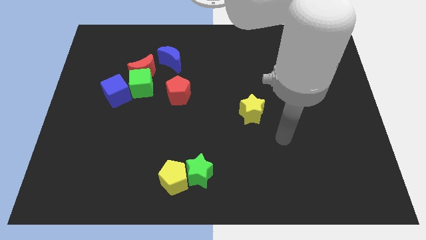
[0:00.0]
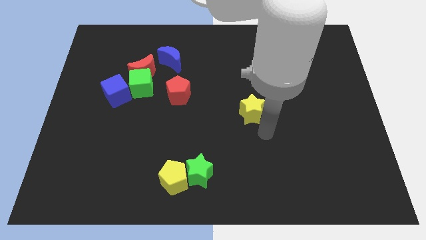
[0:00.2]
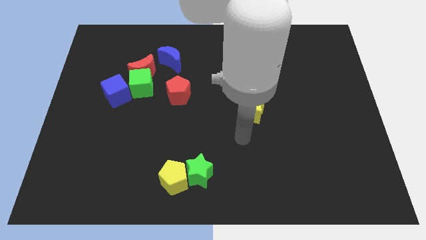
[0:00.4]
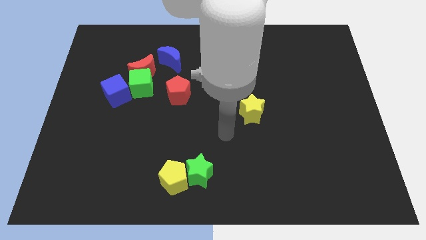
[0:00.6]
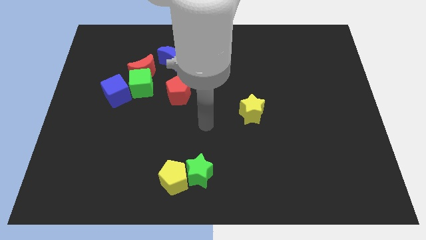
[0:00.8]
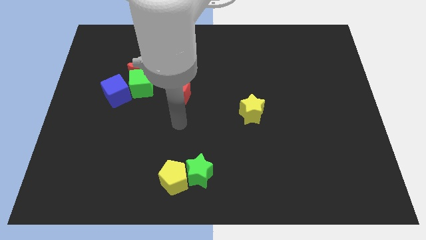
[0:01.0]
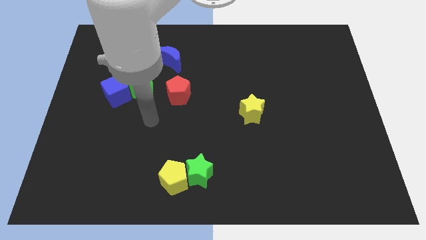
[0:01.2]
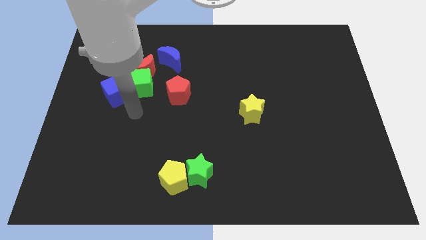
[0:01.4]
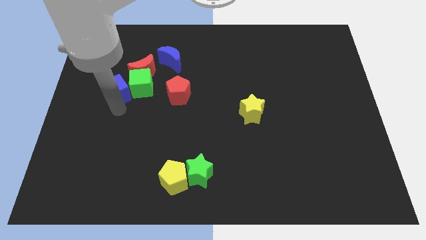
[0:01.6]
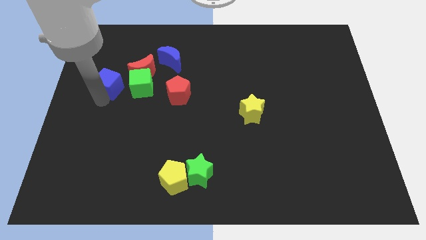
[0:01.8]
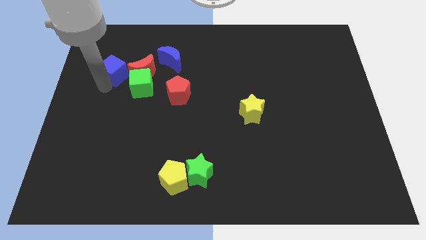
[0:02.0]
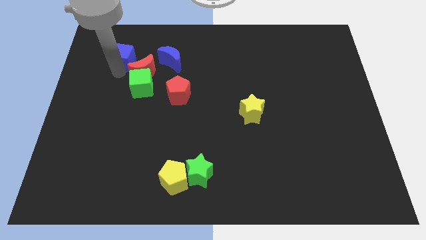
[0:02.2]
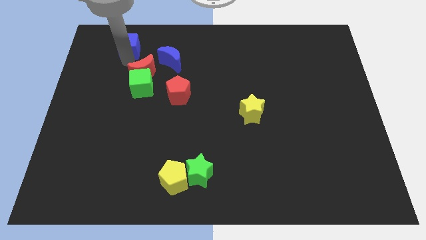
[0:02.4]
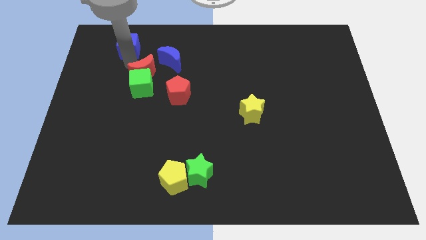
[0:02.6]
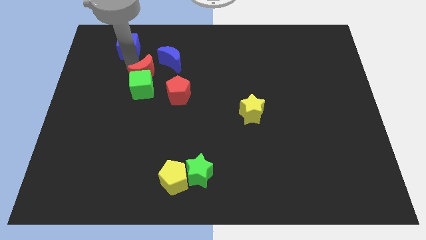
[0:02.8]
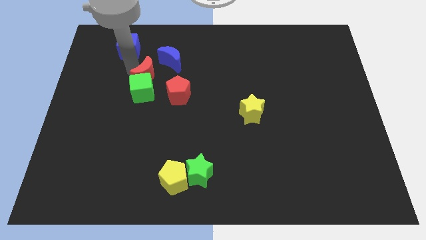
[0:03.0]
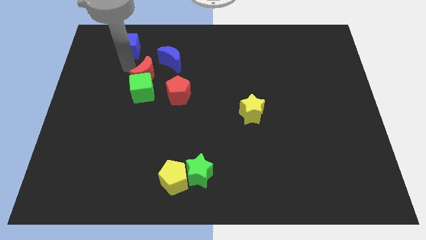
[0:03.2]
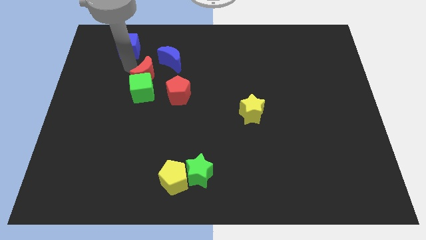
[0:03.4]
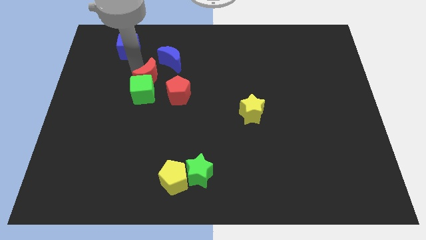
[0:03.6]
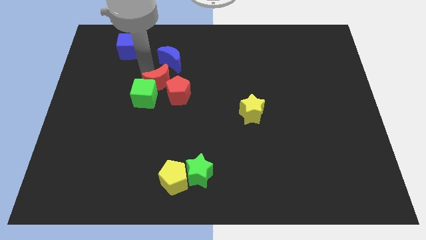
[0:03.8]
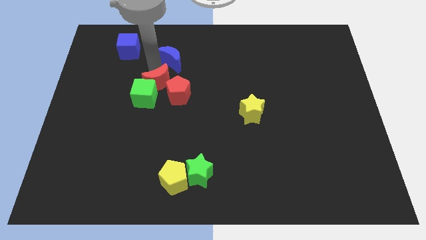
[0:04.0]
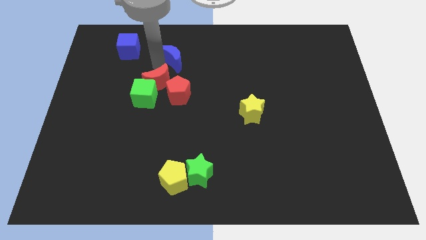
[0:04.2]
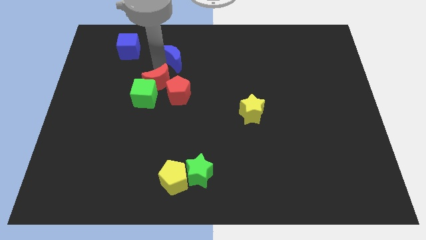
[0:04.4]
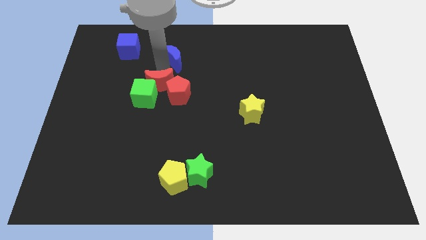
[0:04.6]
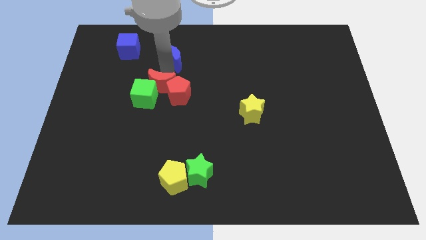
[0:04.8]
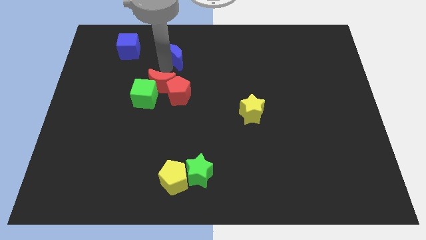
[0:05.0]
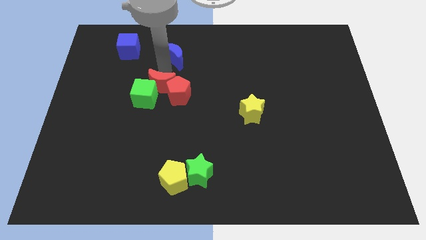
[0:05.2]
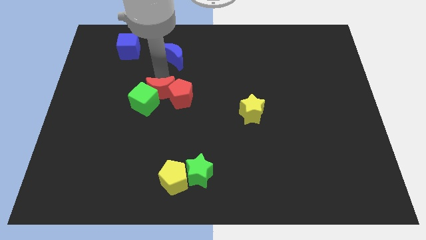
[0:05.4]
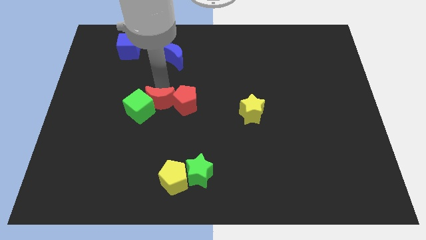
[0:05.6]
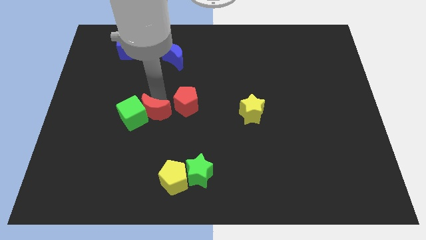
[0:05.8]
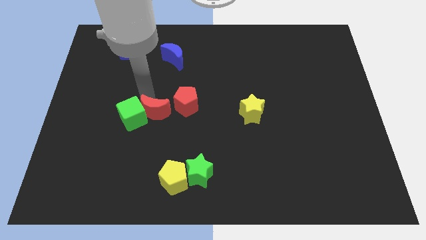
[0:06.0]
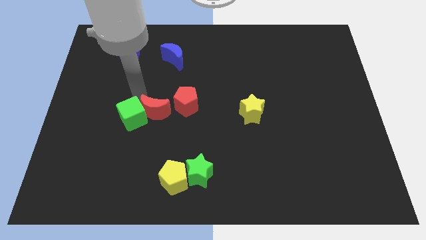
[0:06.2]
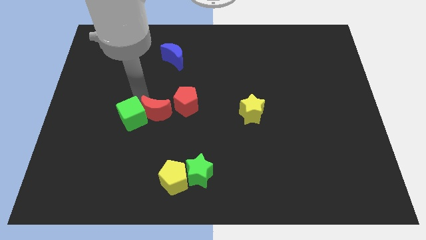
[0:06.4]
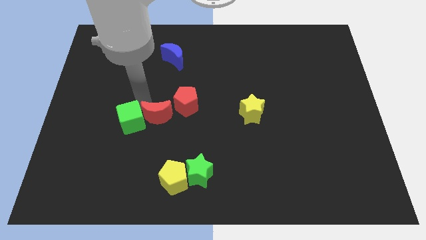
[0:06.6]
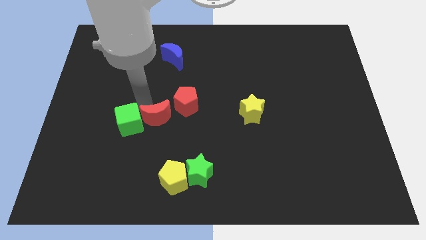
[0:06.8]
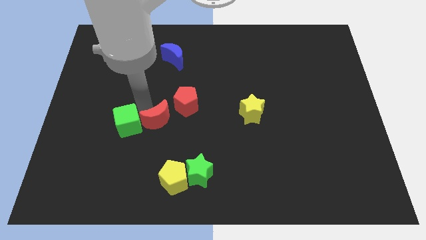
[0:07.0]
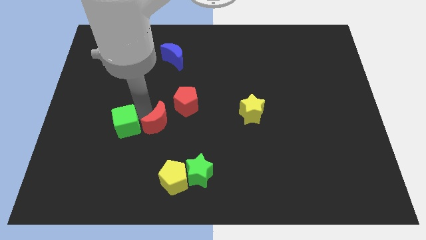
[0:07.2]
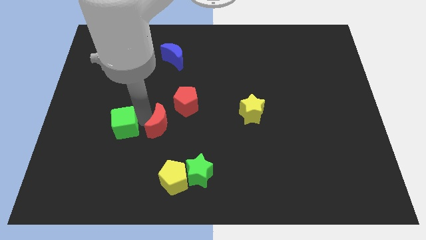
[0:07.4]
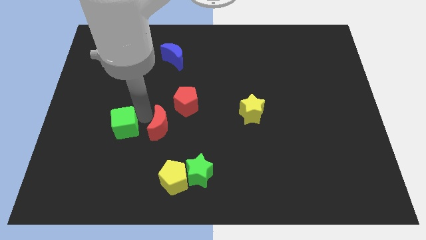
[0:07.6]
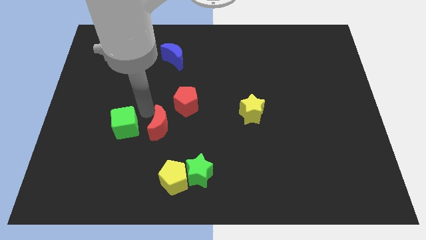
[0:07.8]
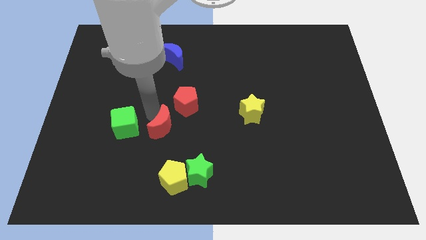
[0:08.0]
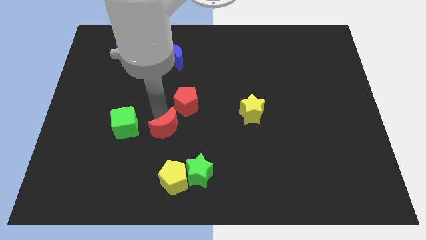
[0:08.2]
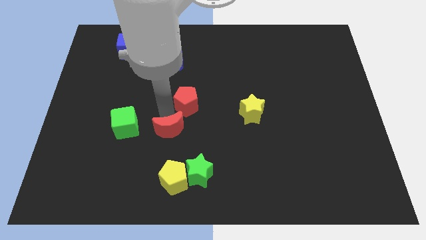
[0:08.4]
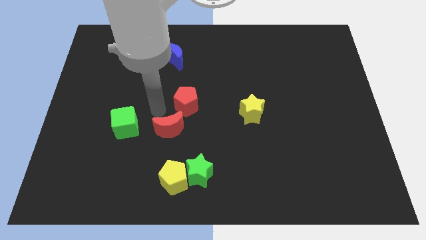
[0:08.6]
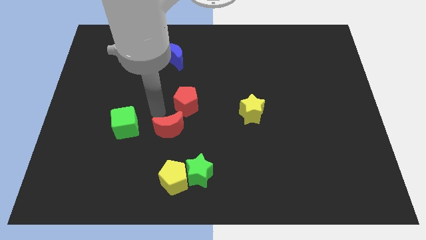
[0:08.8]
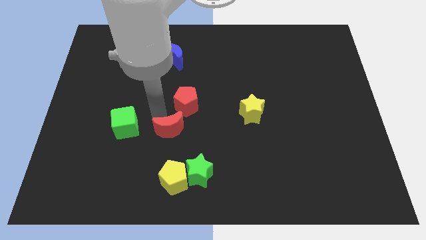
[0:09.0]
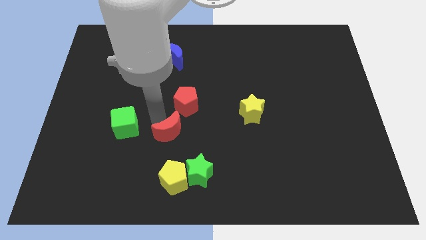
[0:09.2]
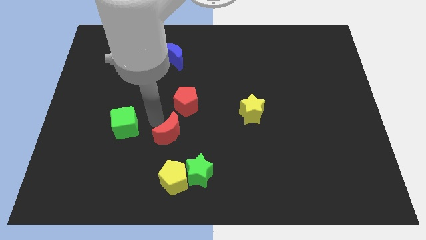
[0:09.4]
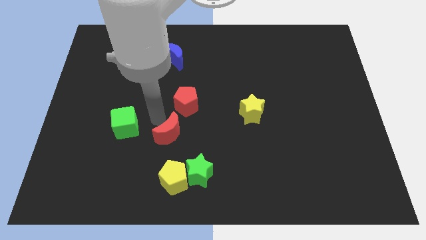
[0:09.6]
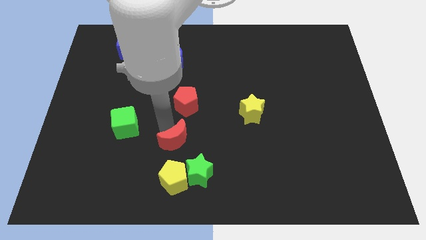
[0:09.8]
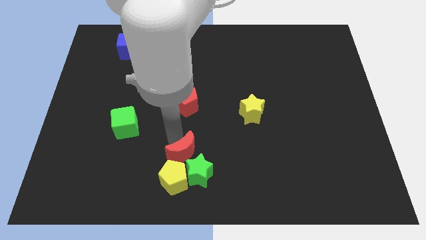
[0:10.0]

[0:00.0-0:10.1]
push the red moon close to the green star

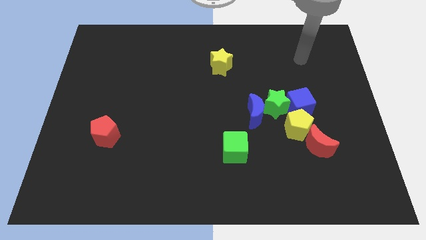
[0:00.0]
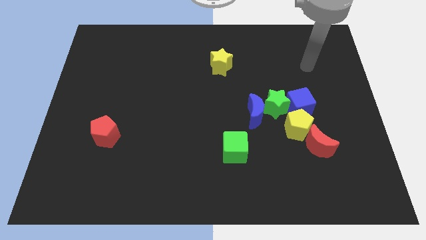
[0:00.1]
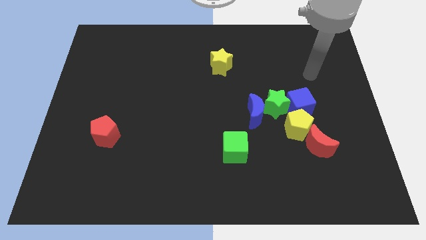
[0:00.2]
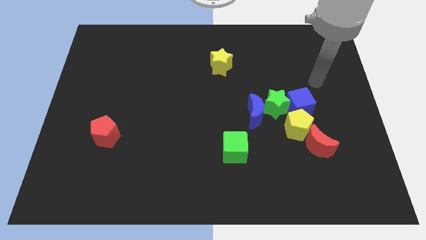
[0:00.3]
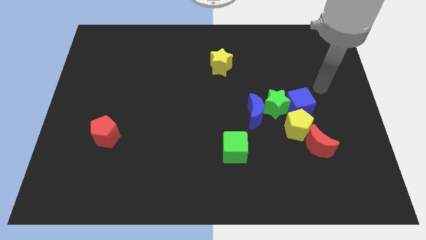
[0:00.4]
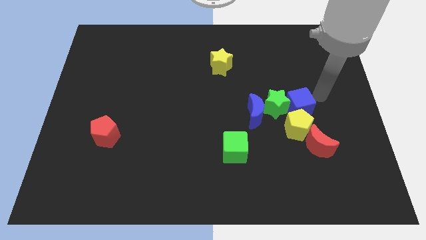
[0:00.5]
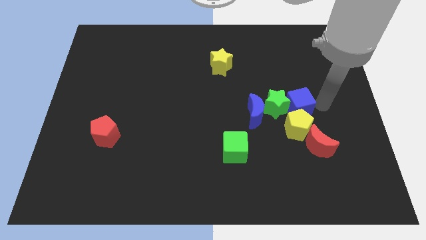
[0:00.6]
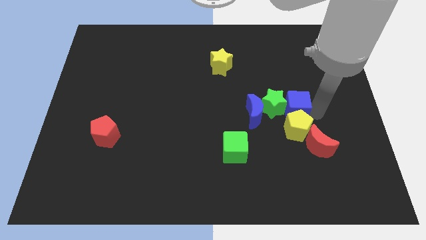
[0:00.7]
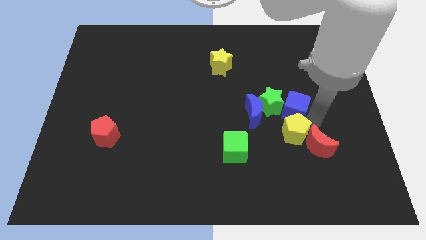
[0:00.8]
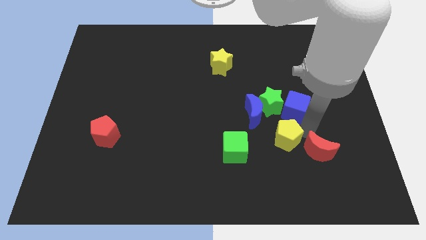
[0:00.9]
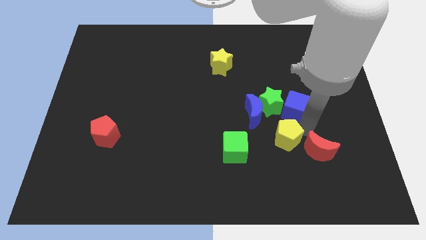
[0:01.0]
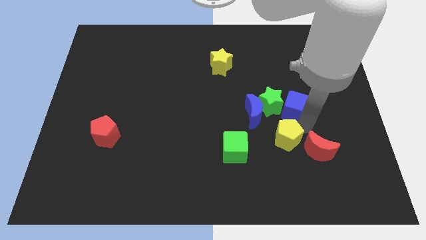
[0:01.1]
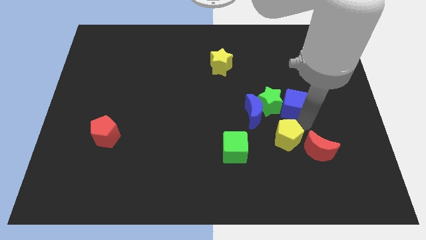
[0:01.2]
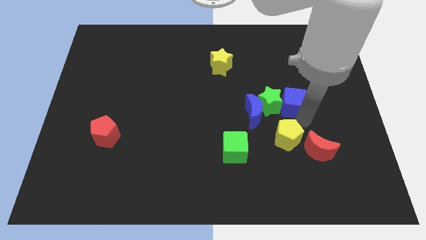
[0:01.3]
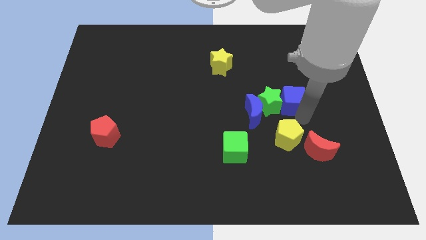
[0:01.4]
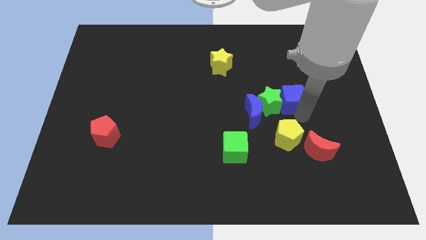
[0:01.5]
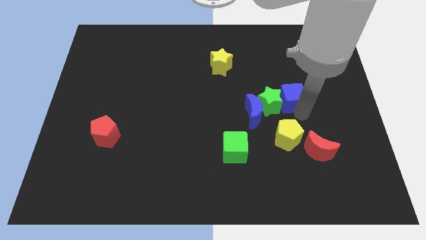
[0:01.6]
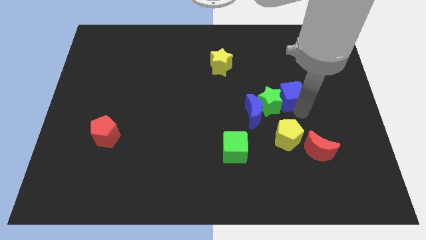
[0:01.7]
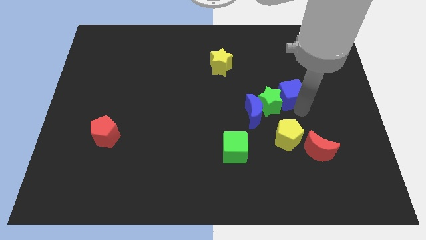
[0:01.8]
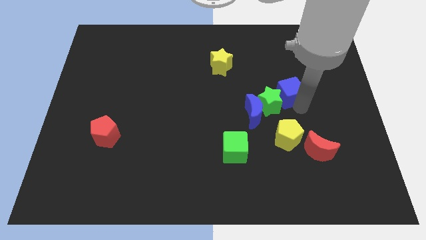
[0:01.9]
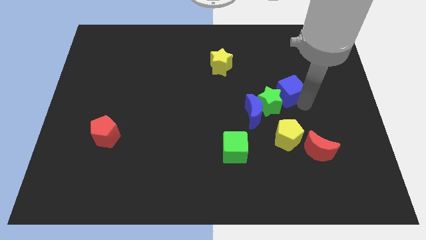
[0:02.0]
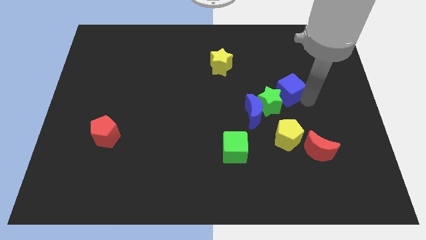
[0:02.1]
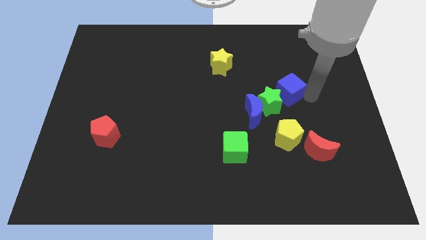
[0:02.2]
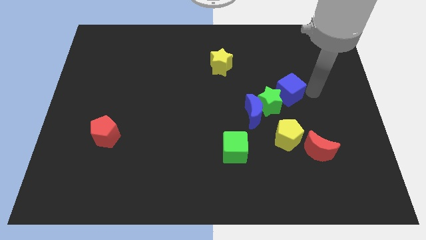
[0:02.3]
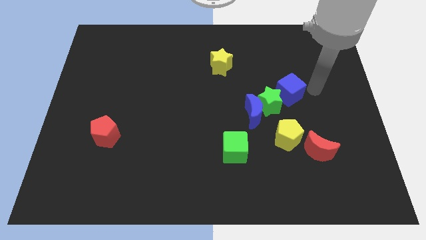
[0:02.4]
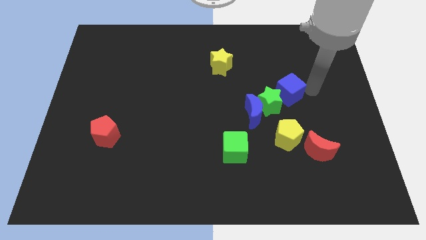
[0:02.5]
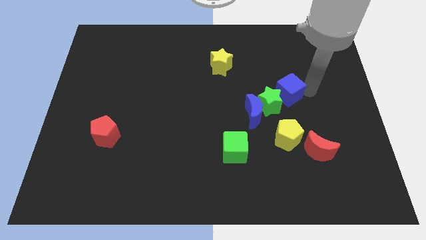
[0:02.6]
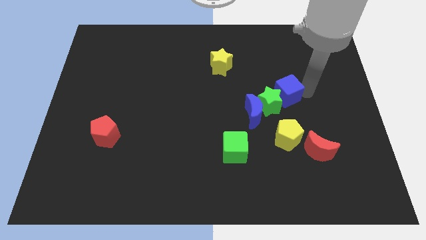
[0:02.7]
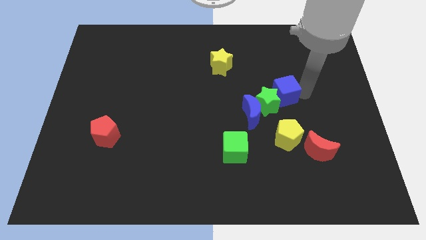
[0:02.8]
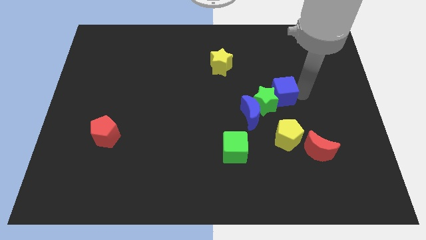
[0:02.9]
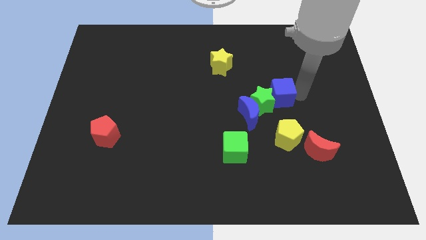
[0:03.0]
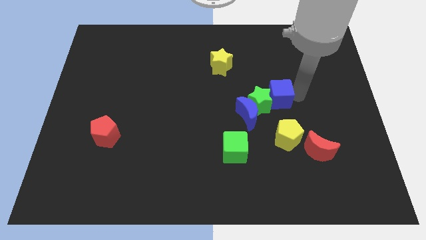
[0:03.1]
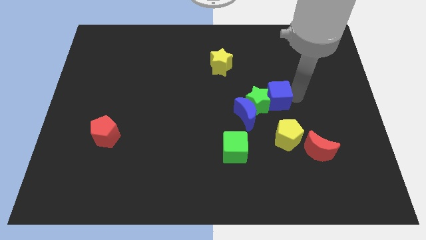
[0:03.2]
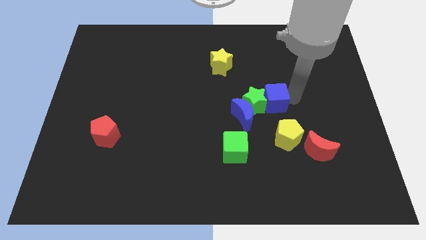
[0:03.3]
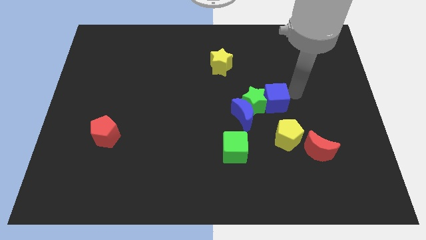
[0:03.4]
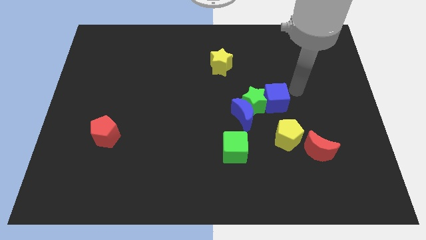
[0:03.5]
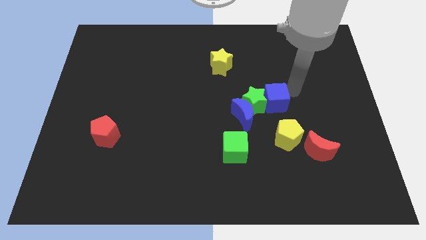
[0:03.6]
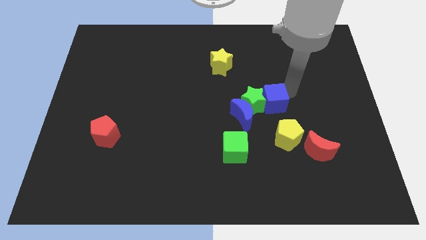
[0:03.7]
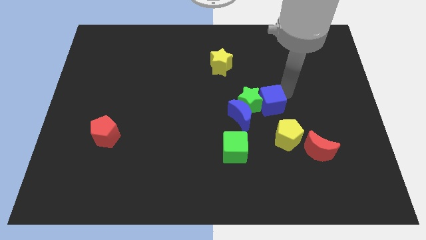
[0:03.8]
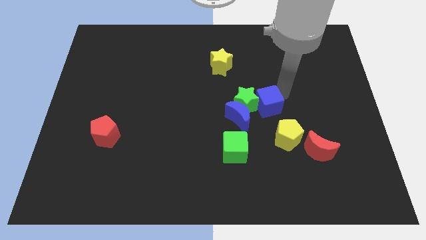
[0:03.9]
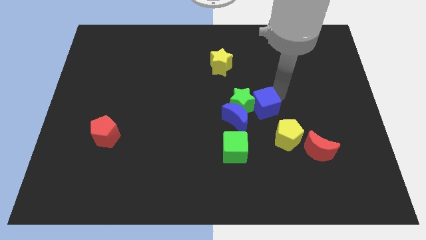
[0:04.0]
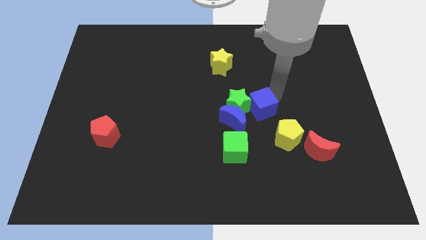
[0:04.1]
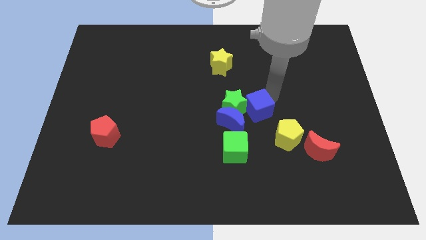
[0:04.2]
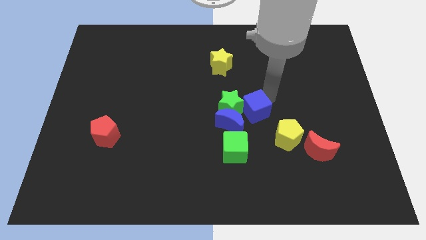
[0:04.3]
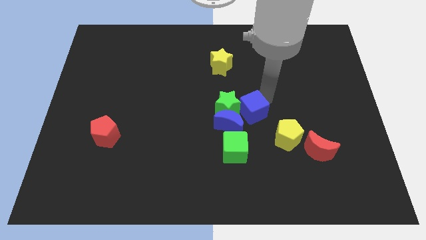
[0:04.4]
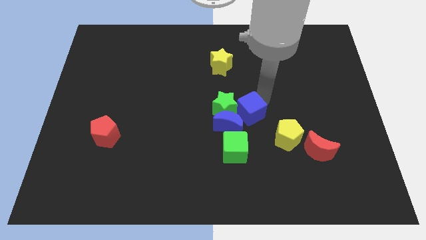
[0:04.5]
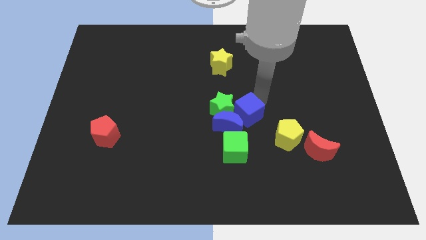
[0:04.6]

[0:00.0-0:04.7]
push the blue cube to the blue moon
